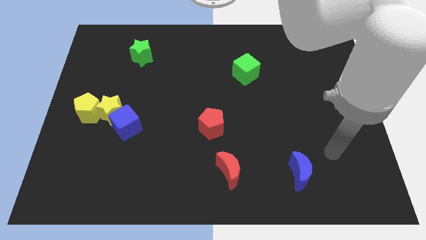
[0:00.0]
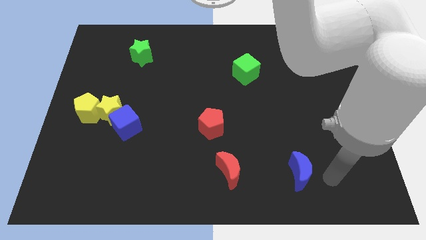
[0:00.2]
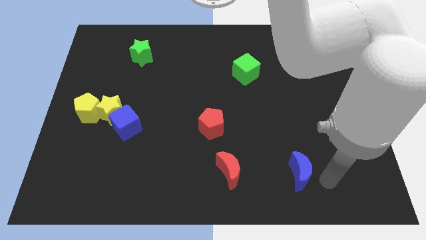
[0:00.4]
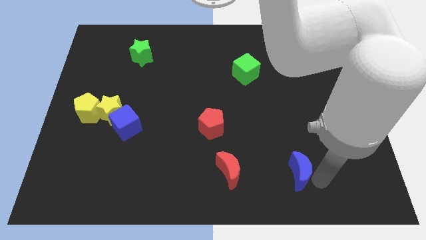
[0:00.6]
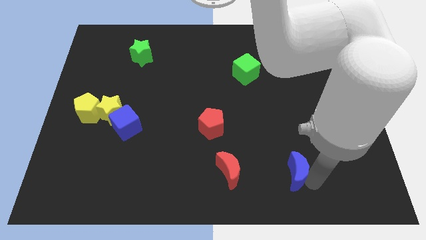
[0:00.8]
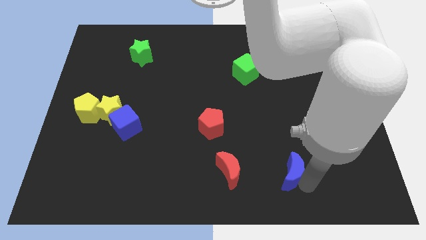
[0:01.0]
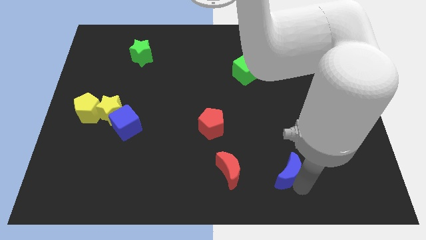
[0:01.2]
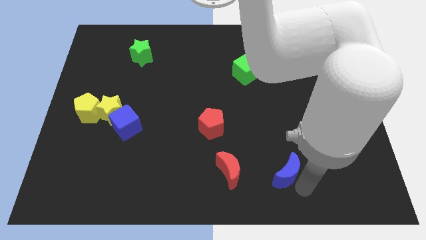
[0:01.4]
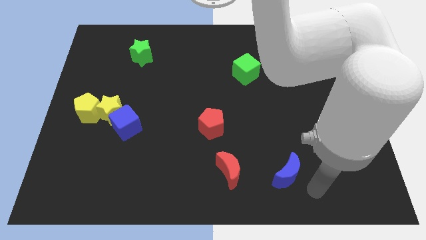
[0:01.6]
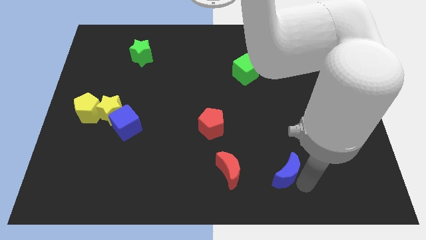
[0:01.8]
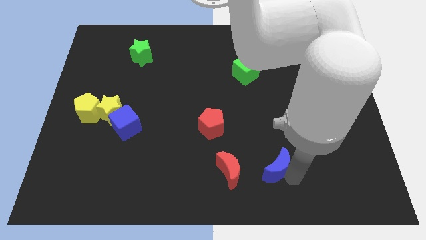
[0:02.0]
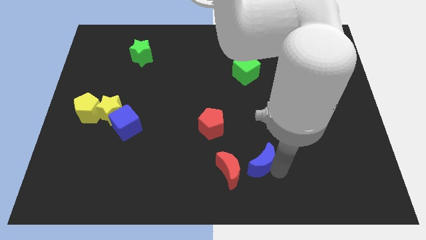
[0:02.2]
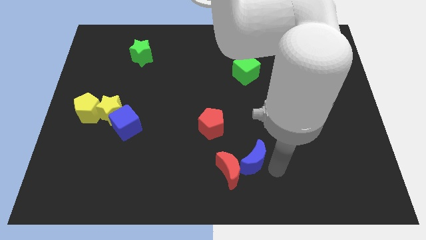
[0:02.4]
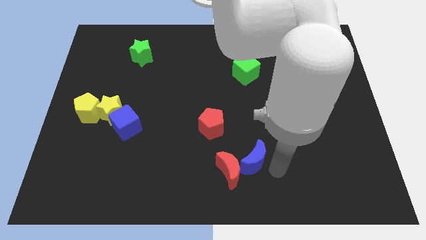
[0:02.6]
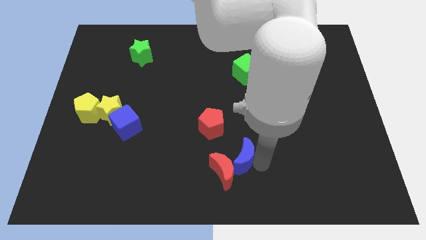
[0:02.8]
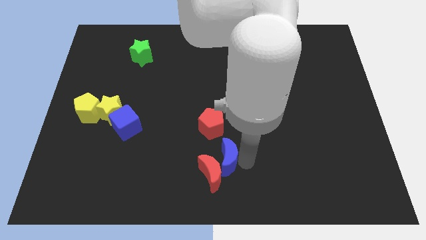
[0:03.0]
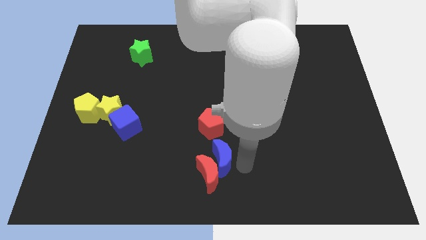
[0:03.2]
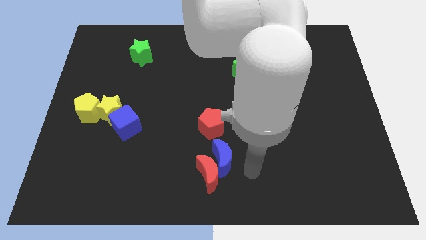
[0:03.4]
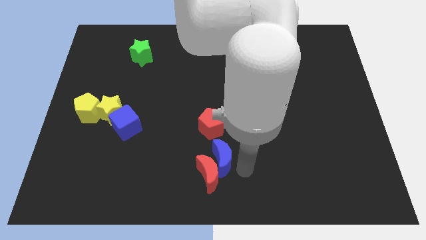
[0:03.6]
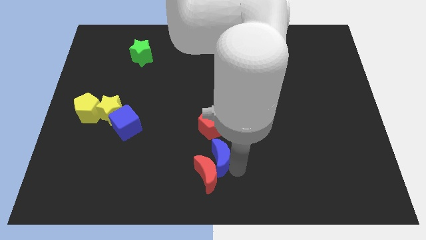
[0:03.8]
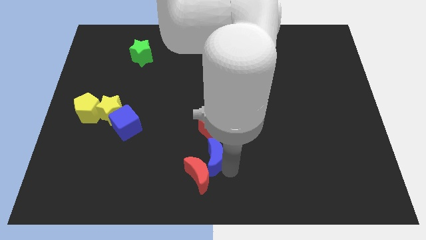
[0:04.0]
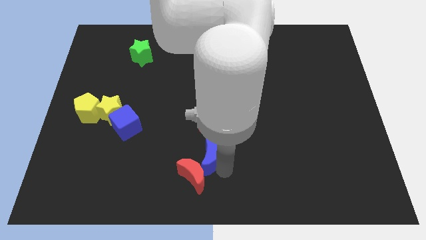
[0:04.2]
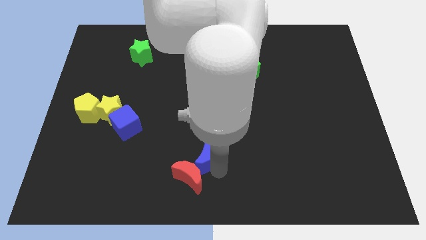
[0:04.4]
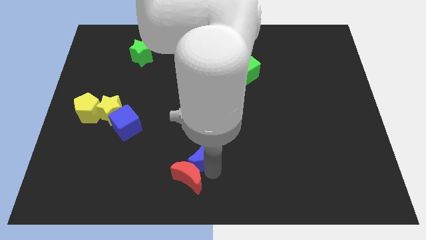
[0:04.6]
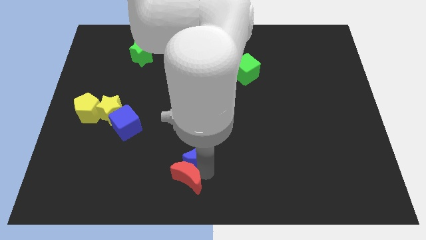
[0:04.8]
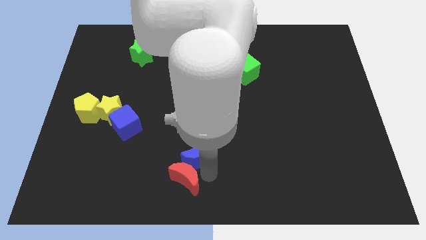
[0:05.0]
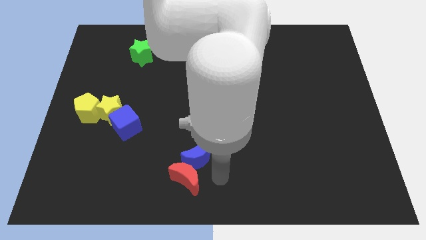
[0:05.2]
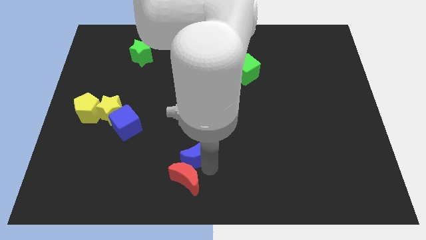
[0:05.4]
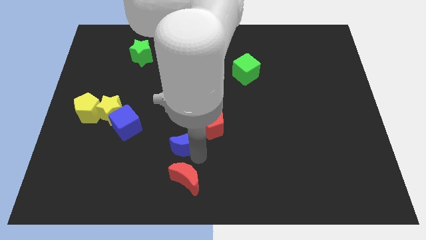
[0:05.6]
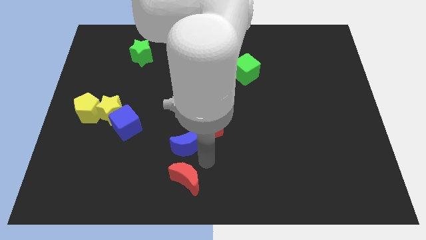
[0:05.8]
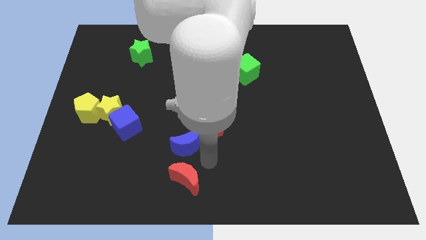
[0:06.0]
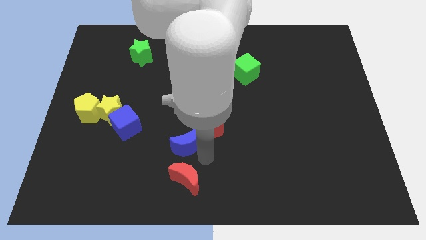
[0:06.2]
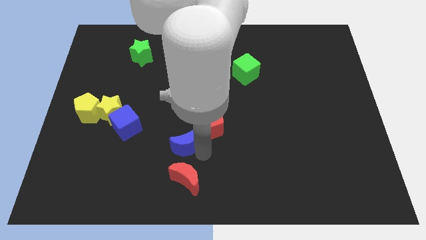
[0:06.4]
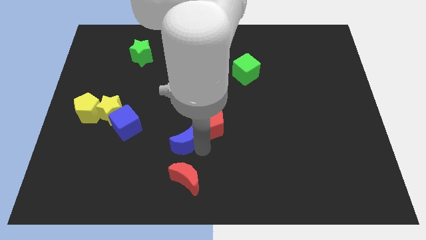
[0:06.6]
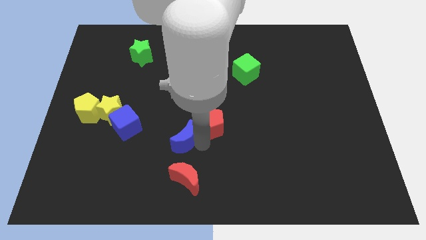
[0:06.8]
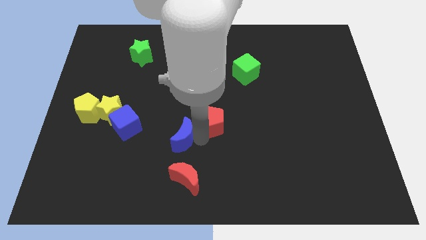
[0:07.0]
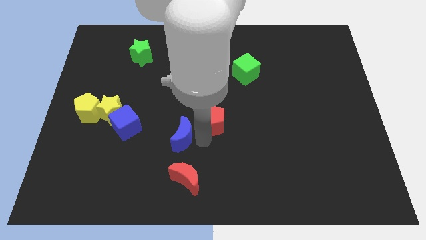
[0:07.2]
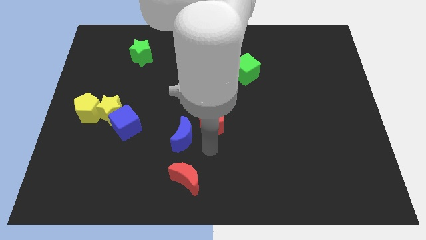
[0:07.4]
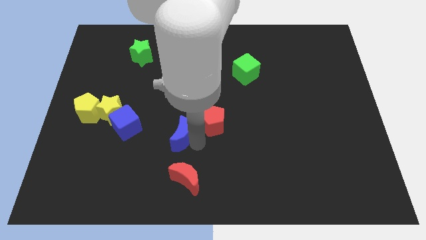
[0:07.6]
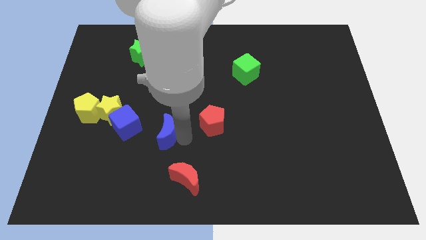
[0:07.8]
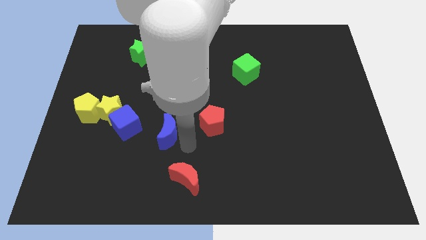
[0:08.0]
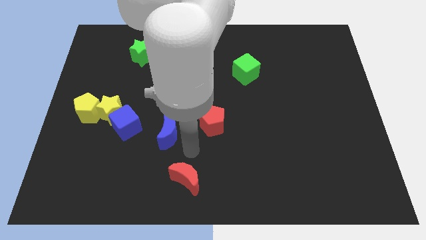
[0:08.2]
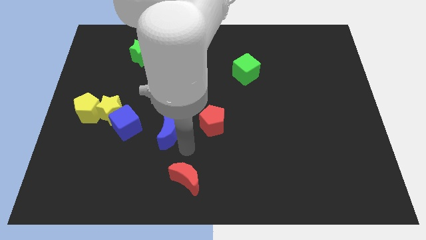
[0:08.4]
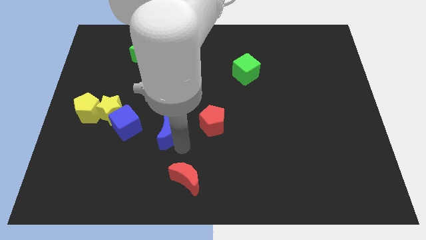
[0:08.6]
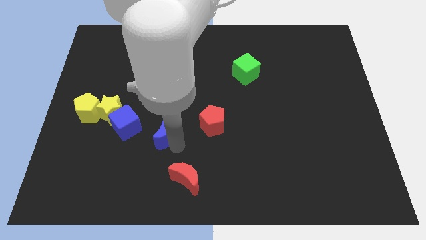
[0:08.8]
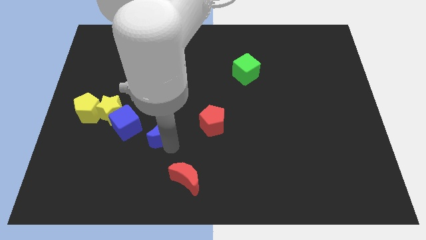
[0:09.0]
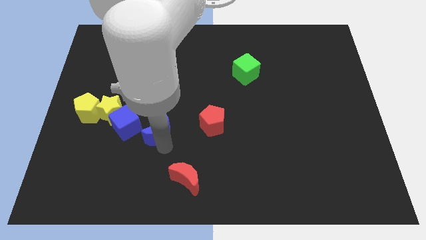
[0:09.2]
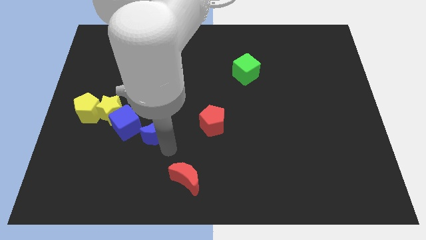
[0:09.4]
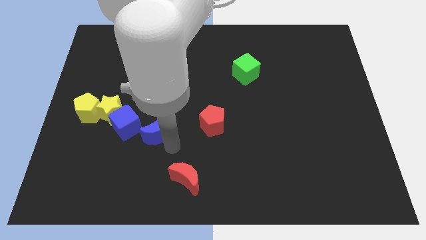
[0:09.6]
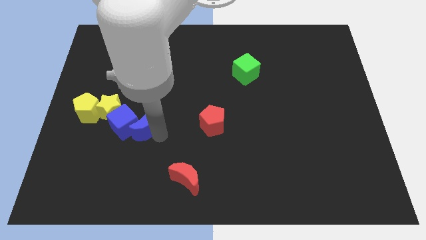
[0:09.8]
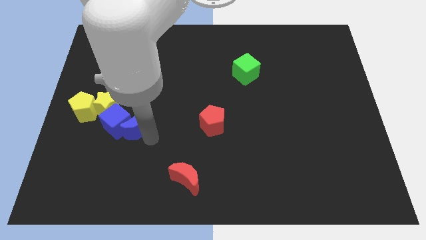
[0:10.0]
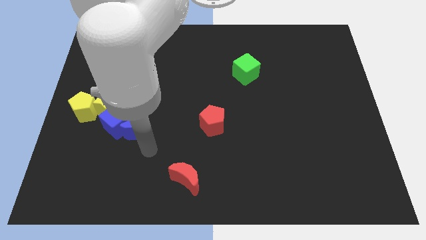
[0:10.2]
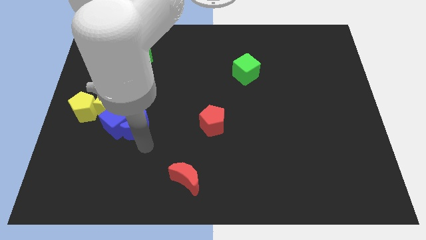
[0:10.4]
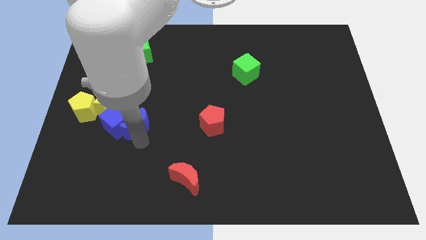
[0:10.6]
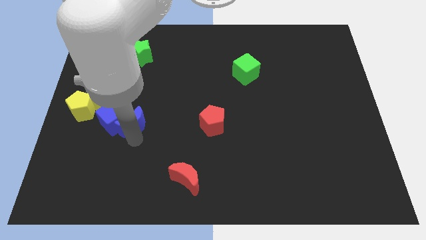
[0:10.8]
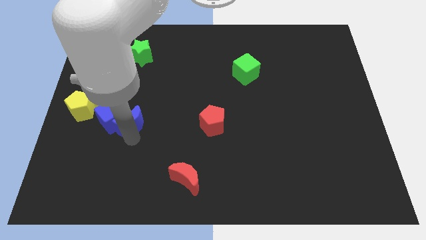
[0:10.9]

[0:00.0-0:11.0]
put the blue moon just right of the yellow pentagon

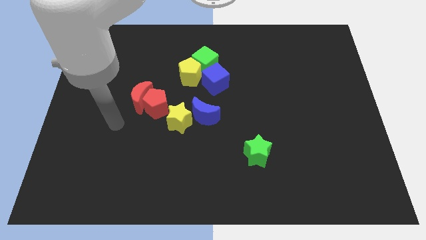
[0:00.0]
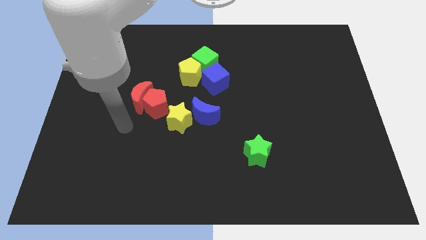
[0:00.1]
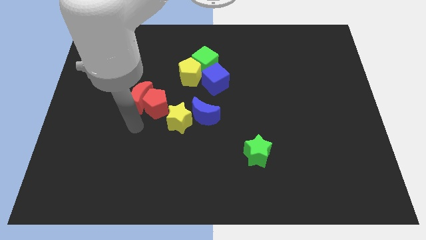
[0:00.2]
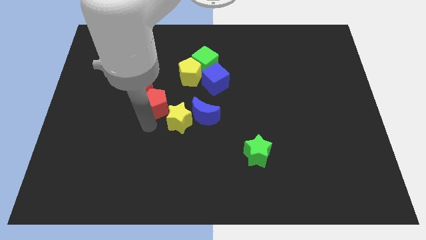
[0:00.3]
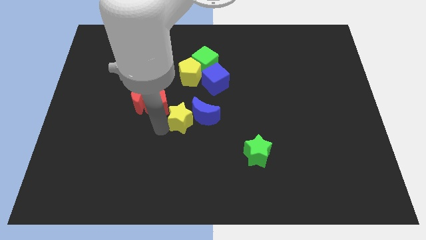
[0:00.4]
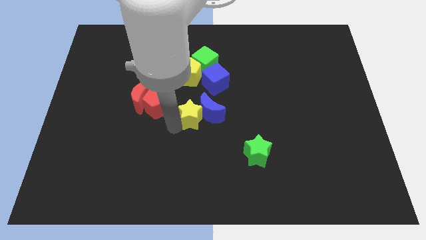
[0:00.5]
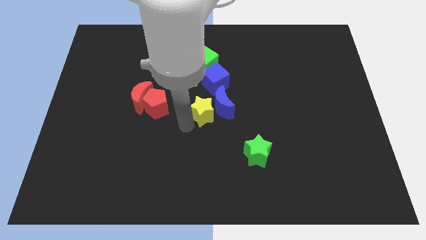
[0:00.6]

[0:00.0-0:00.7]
put the blue moon diagonally down and to the right of the blue cube
